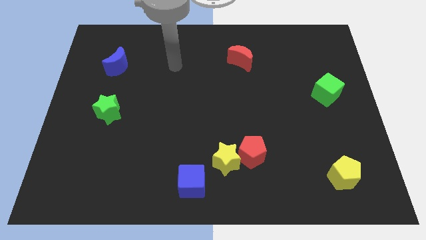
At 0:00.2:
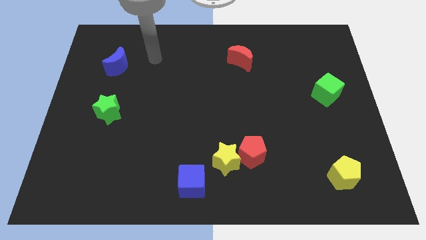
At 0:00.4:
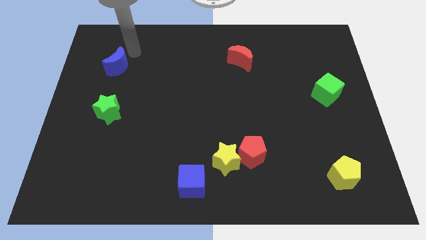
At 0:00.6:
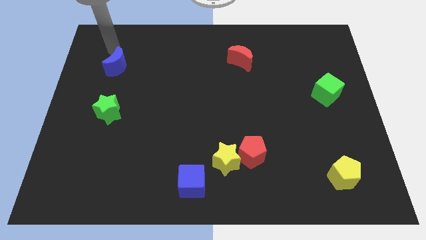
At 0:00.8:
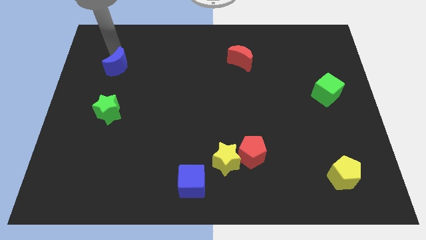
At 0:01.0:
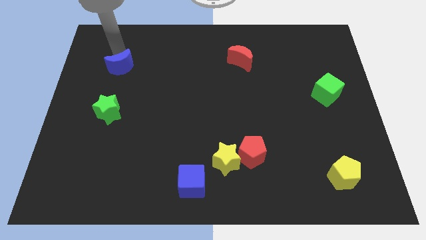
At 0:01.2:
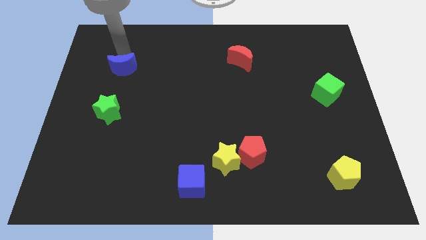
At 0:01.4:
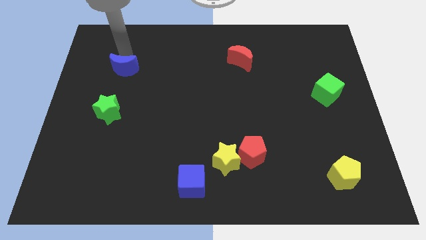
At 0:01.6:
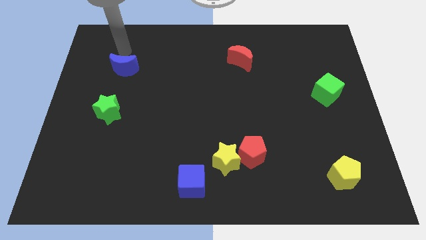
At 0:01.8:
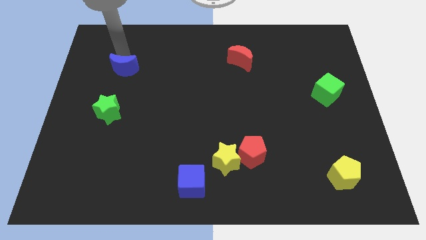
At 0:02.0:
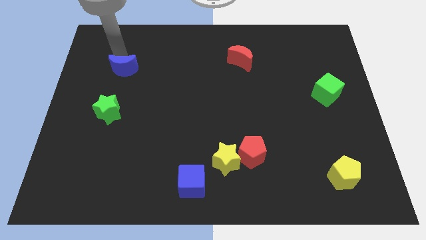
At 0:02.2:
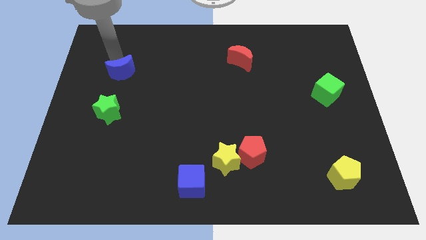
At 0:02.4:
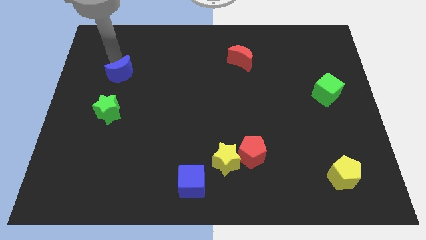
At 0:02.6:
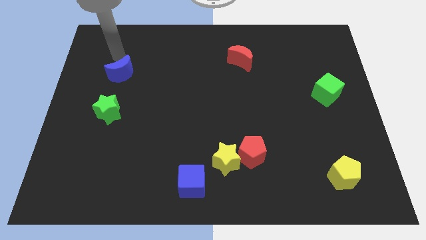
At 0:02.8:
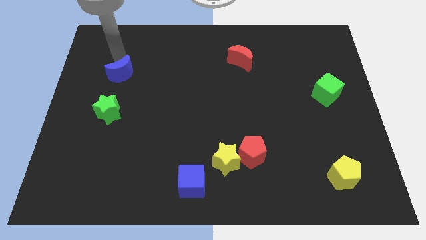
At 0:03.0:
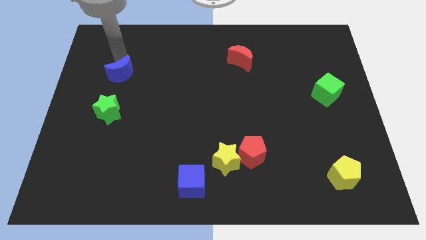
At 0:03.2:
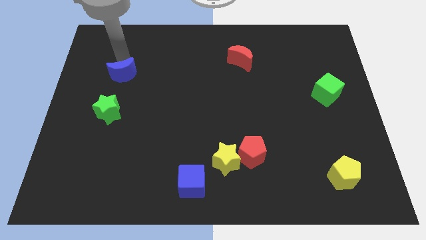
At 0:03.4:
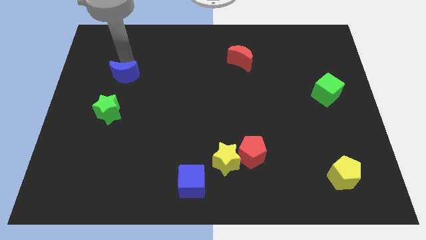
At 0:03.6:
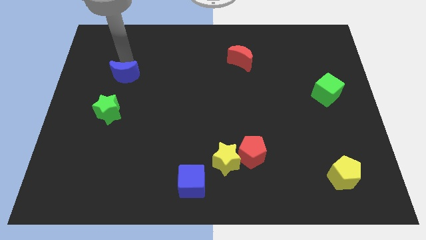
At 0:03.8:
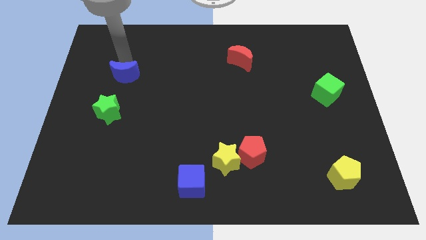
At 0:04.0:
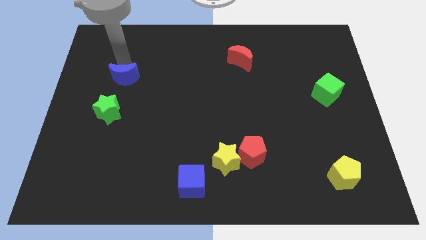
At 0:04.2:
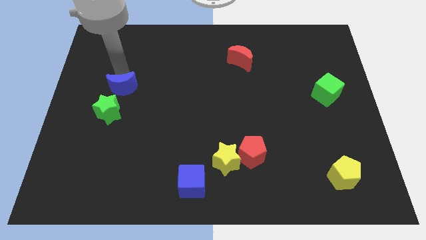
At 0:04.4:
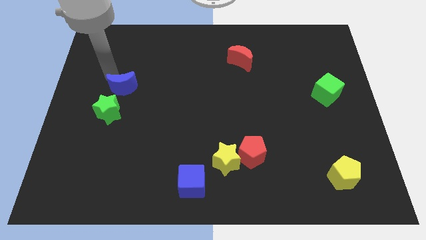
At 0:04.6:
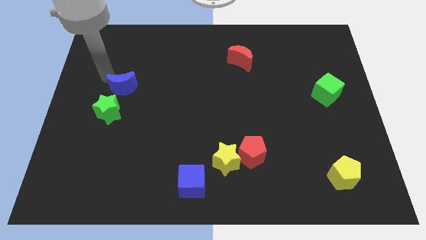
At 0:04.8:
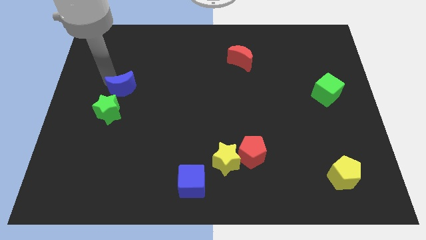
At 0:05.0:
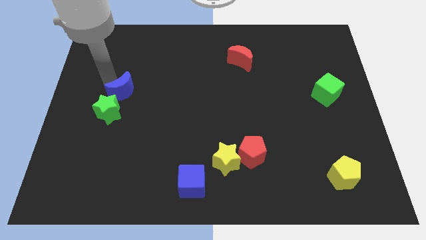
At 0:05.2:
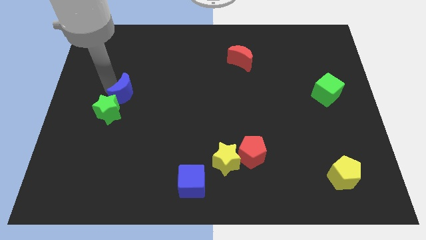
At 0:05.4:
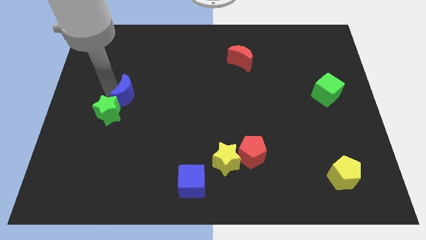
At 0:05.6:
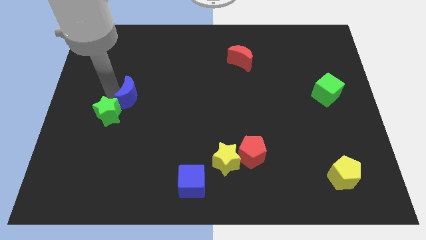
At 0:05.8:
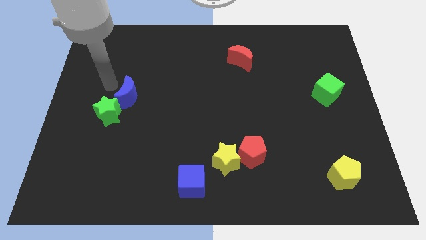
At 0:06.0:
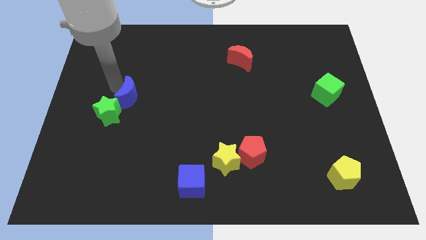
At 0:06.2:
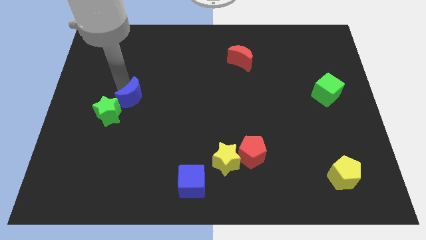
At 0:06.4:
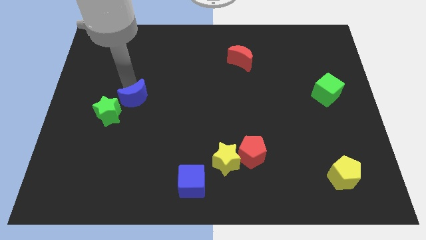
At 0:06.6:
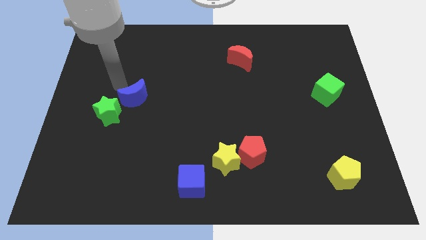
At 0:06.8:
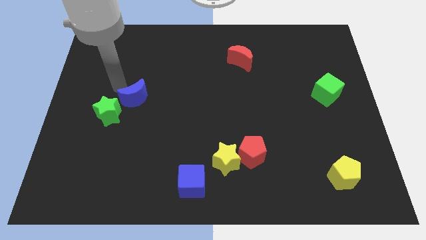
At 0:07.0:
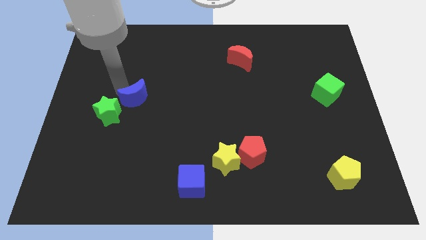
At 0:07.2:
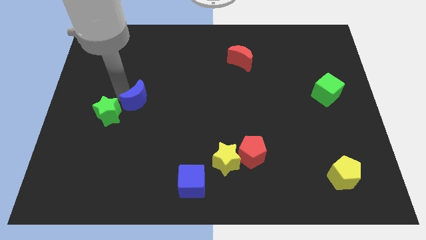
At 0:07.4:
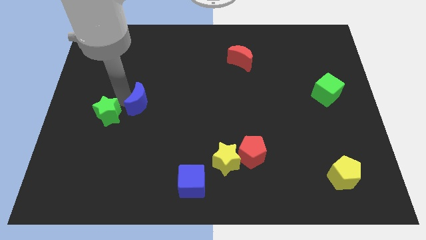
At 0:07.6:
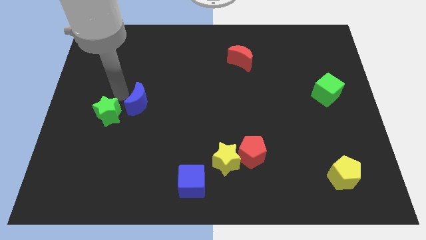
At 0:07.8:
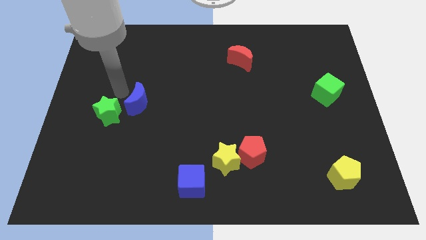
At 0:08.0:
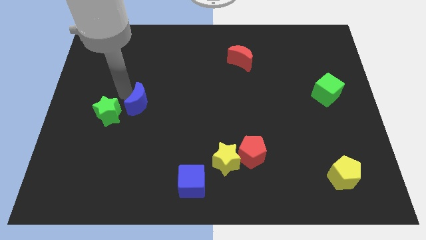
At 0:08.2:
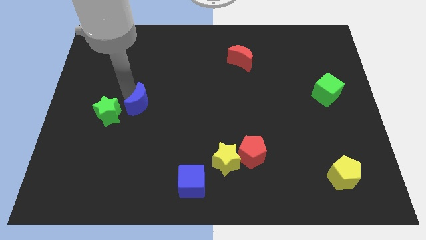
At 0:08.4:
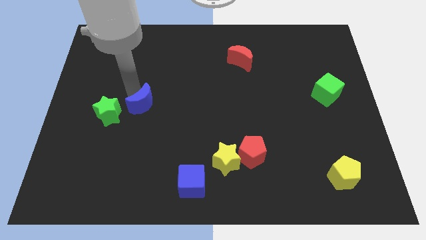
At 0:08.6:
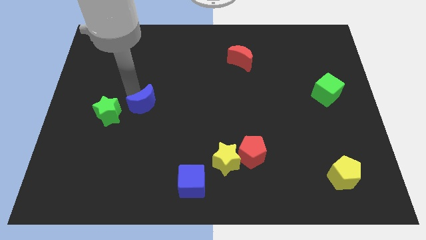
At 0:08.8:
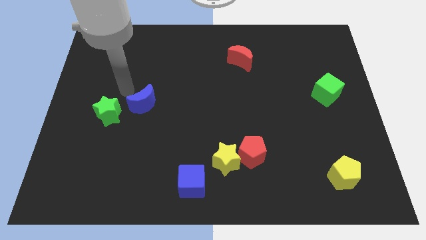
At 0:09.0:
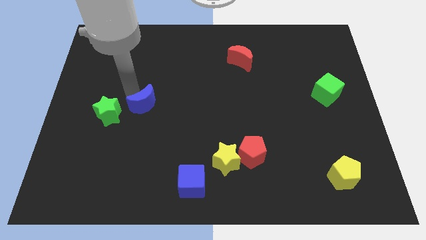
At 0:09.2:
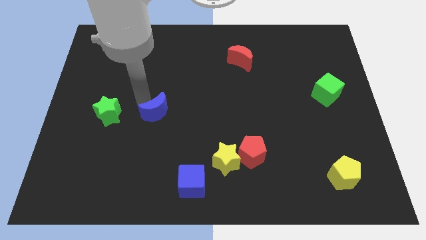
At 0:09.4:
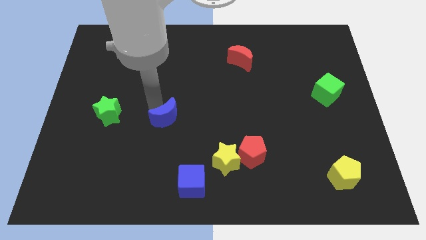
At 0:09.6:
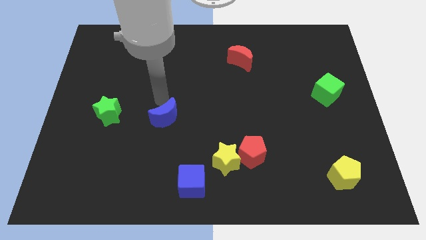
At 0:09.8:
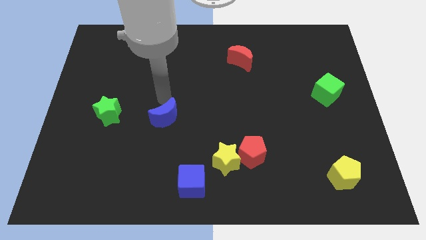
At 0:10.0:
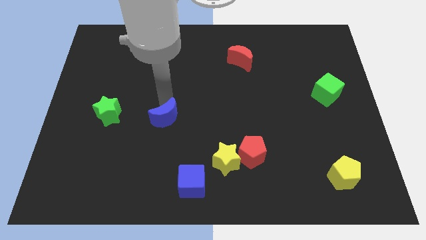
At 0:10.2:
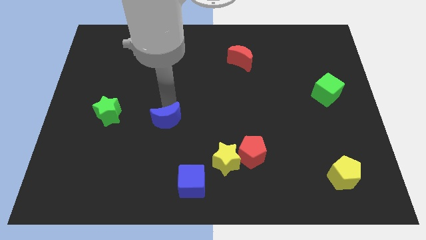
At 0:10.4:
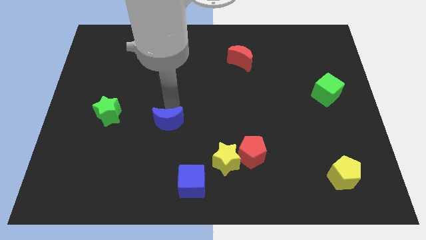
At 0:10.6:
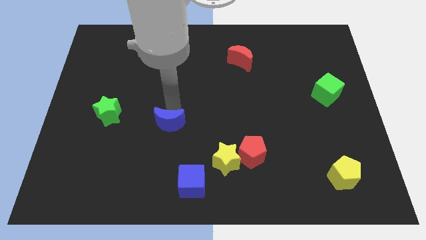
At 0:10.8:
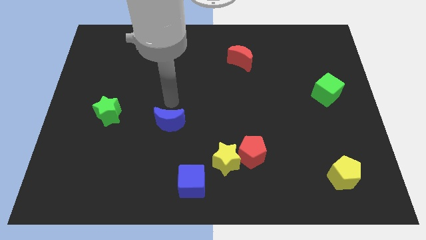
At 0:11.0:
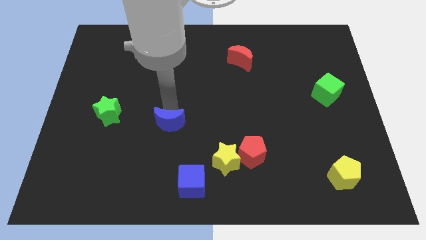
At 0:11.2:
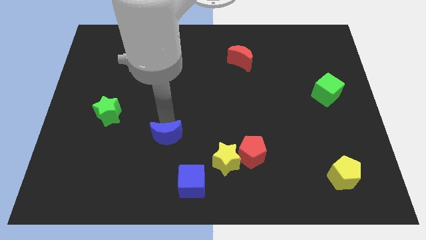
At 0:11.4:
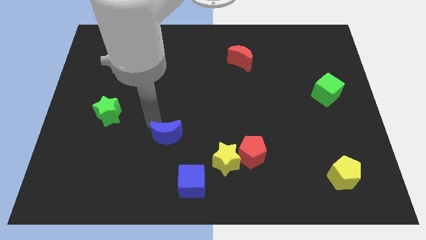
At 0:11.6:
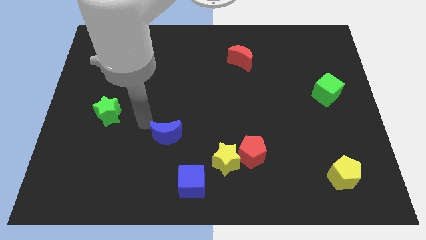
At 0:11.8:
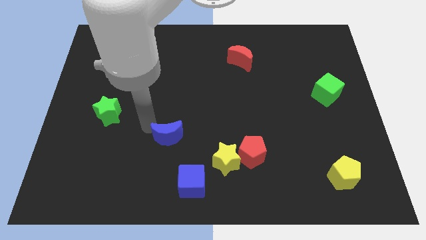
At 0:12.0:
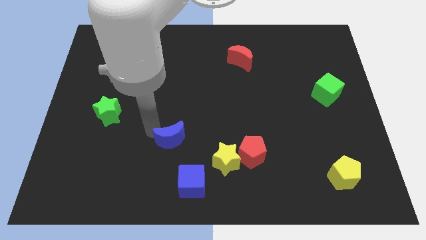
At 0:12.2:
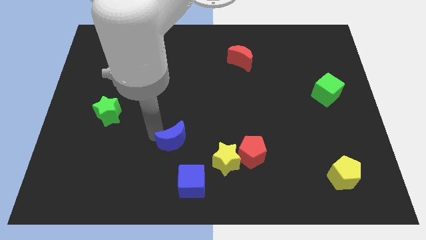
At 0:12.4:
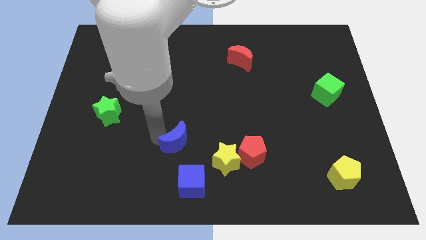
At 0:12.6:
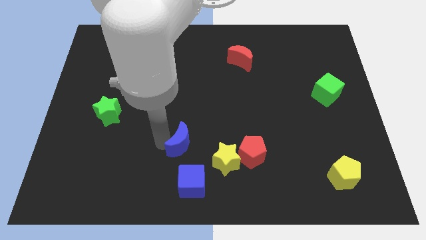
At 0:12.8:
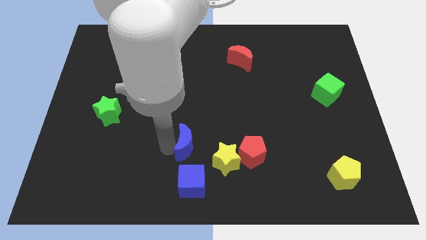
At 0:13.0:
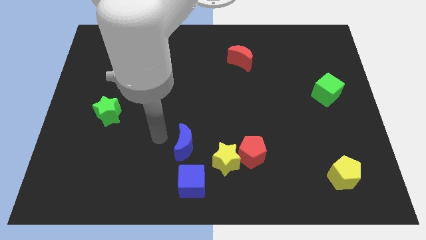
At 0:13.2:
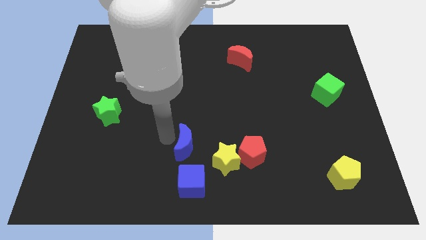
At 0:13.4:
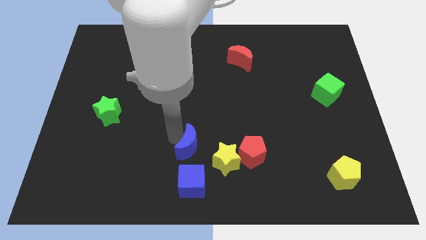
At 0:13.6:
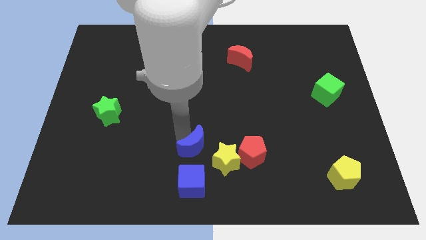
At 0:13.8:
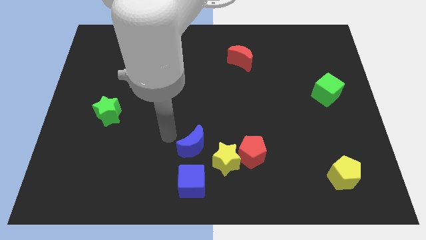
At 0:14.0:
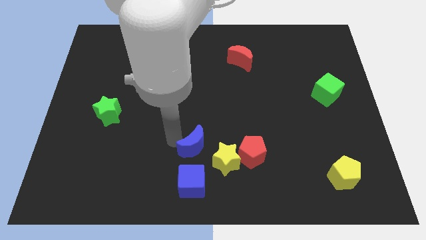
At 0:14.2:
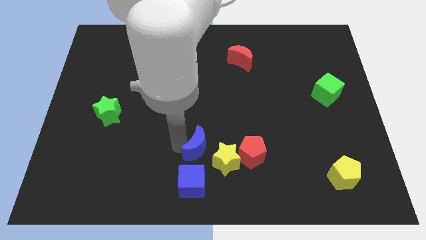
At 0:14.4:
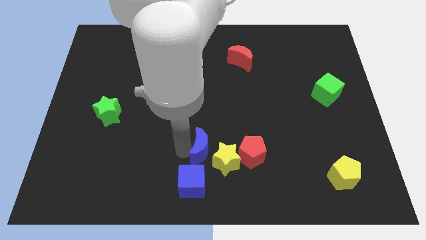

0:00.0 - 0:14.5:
put the blue moon next to the yellow star
